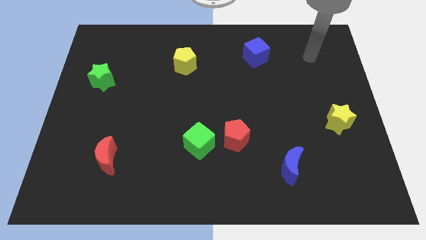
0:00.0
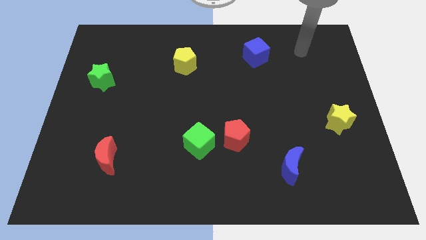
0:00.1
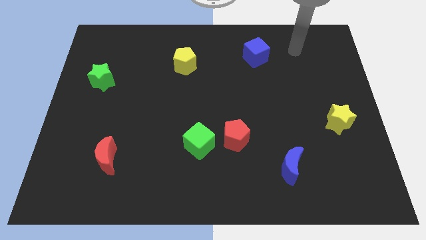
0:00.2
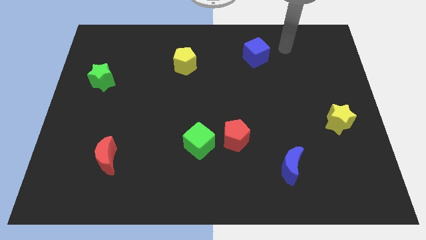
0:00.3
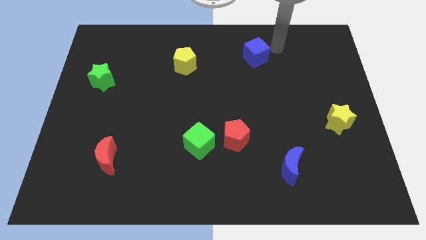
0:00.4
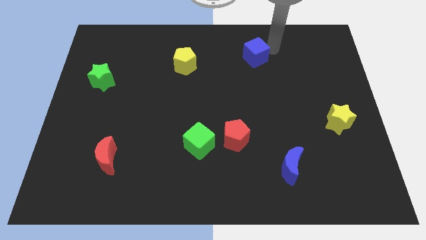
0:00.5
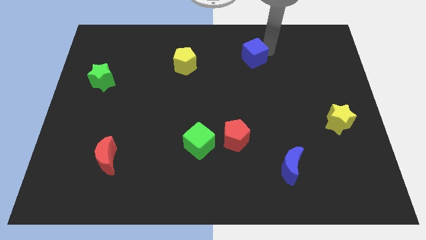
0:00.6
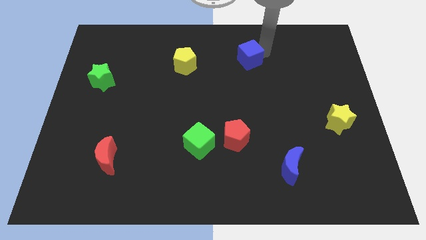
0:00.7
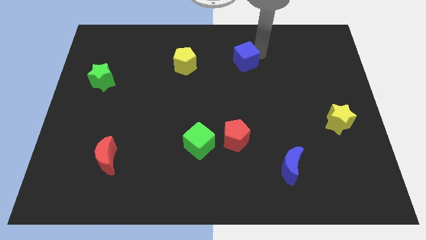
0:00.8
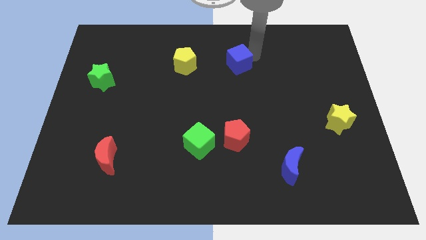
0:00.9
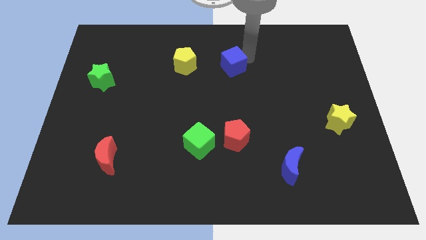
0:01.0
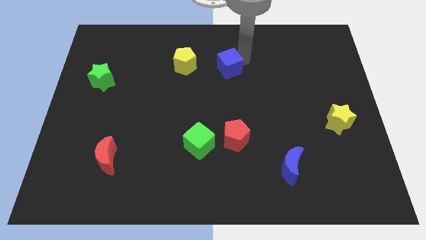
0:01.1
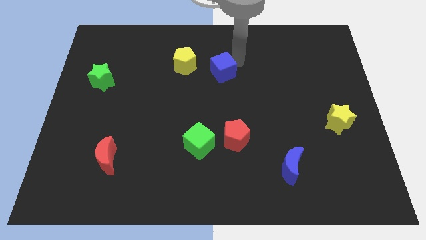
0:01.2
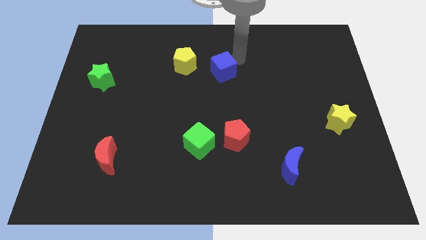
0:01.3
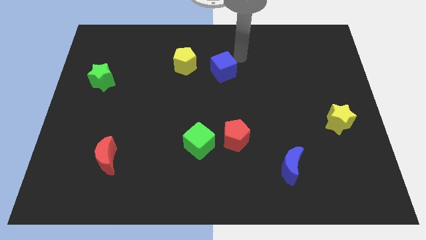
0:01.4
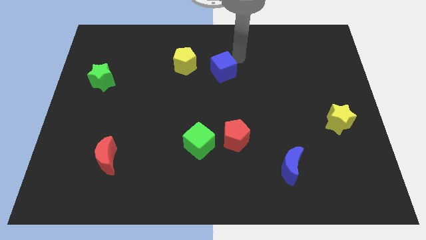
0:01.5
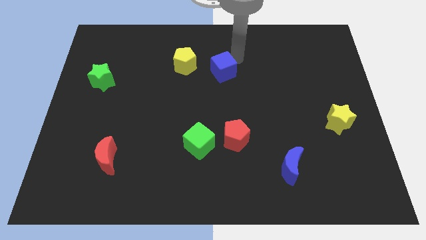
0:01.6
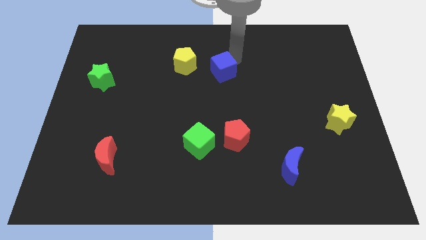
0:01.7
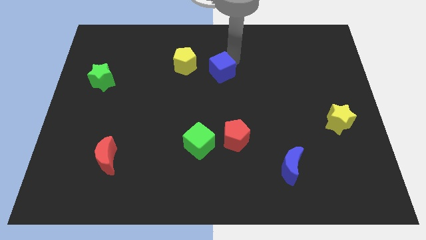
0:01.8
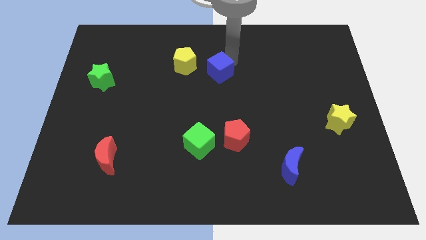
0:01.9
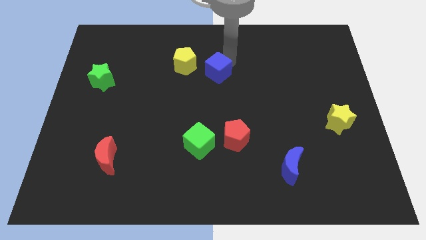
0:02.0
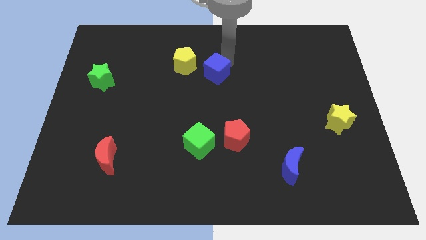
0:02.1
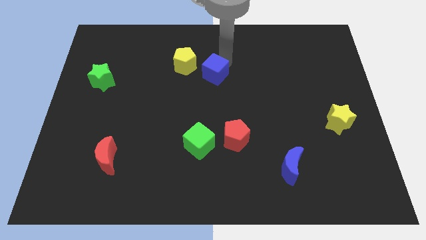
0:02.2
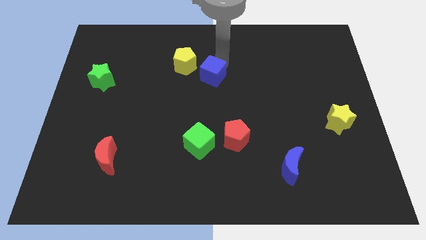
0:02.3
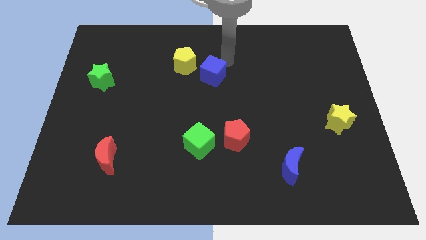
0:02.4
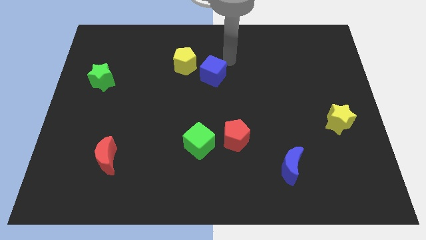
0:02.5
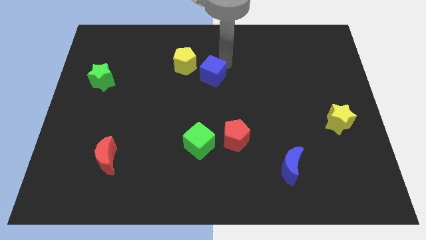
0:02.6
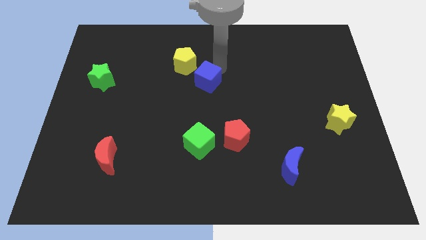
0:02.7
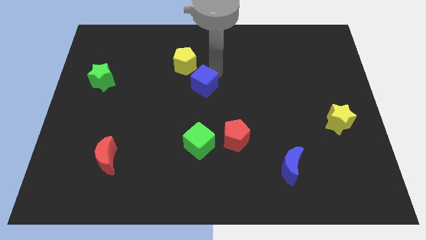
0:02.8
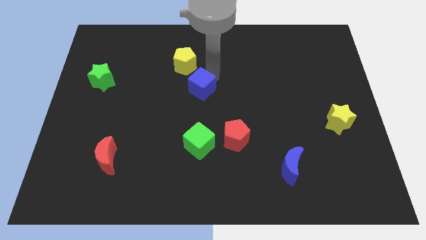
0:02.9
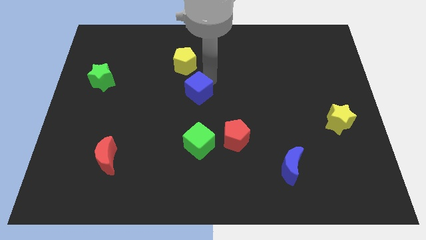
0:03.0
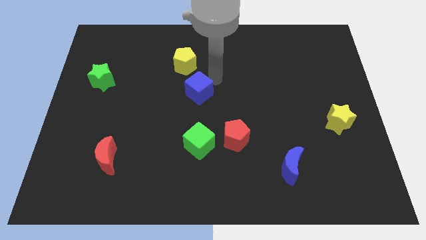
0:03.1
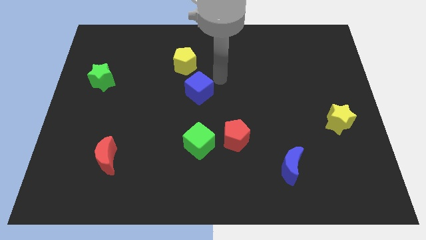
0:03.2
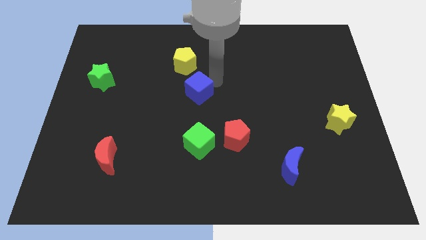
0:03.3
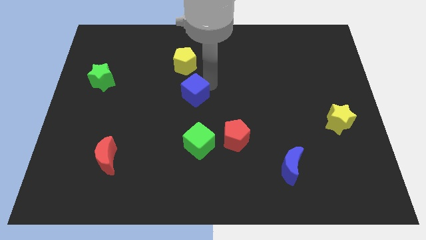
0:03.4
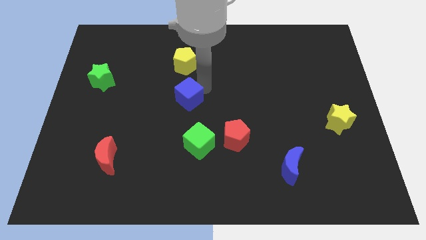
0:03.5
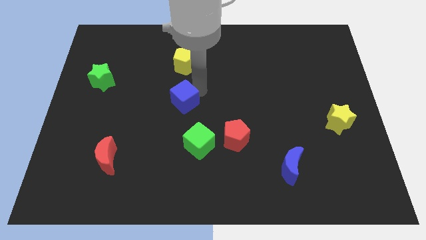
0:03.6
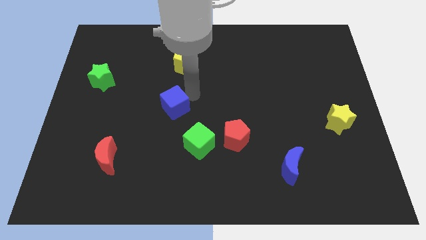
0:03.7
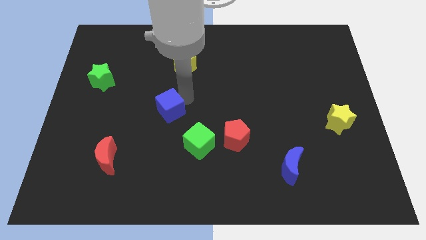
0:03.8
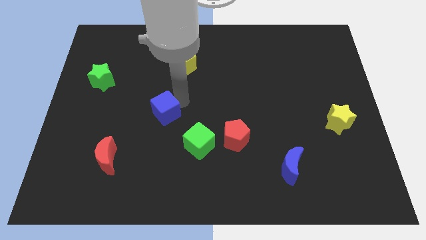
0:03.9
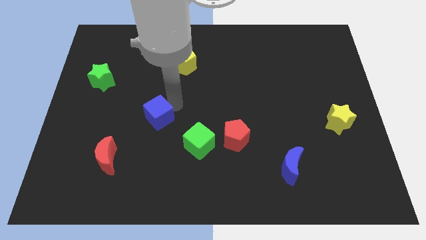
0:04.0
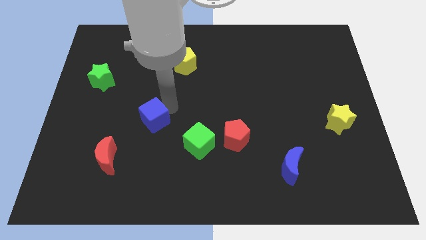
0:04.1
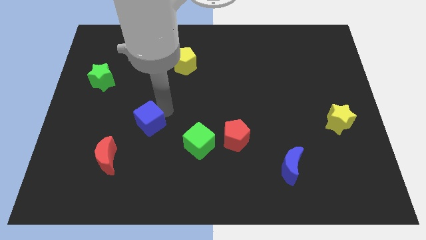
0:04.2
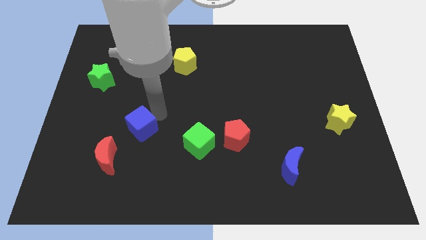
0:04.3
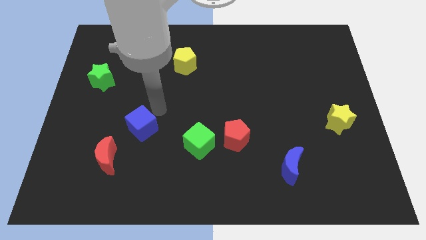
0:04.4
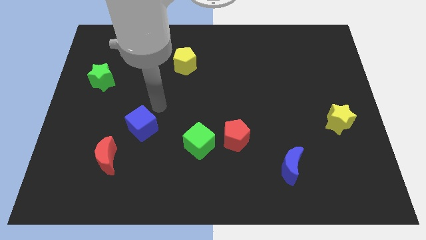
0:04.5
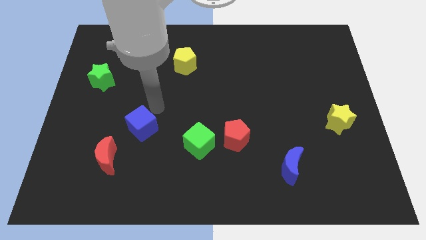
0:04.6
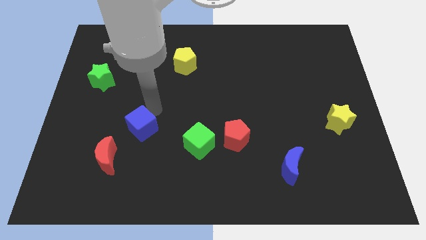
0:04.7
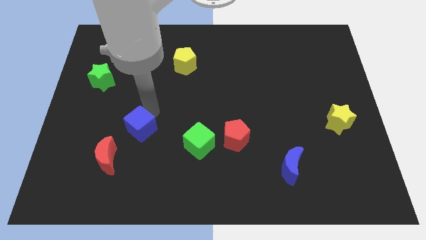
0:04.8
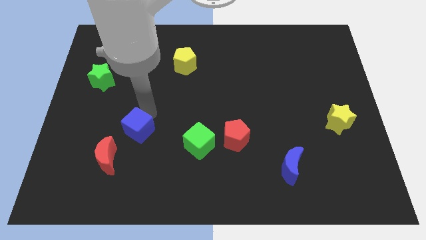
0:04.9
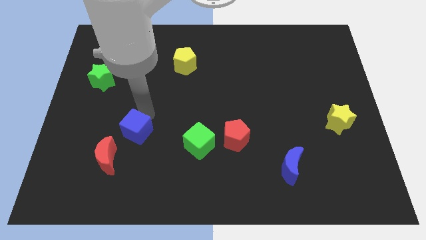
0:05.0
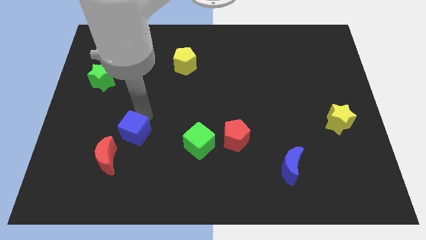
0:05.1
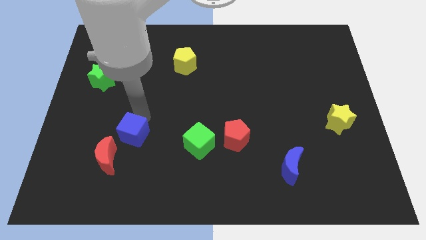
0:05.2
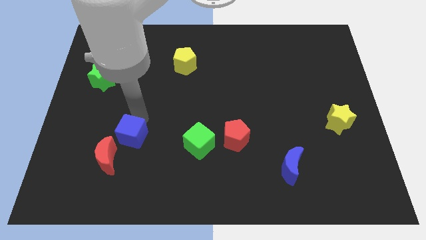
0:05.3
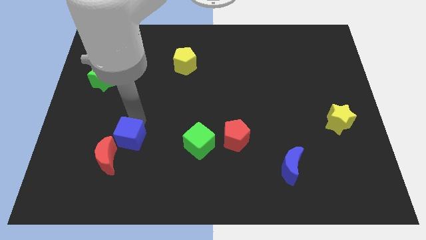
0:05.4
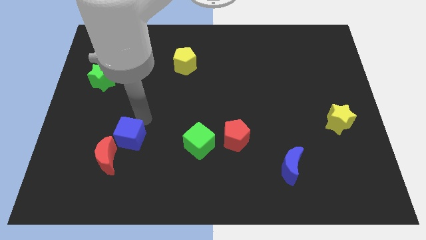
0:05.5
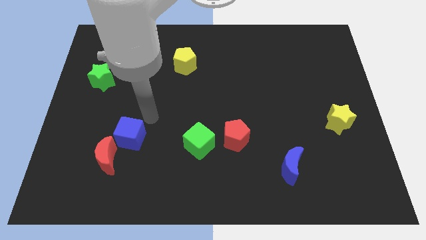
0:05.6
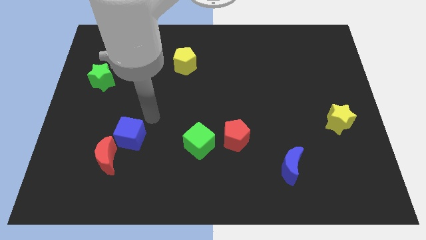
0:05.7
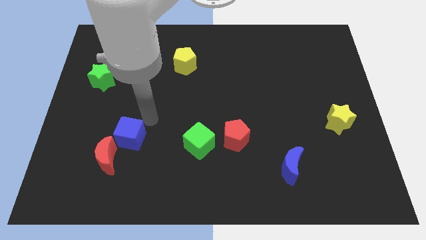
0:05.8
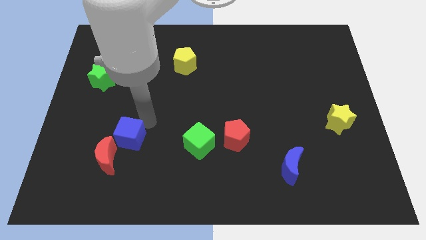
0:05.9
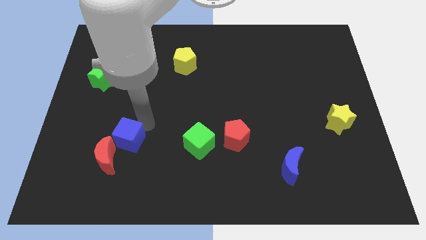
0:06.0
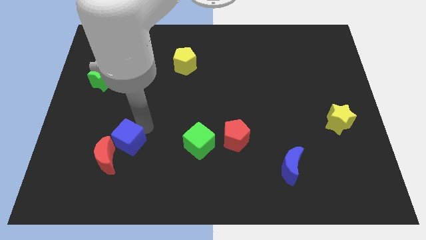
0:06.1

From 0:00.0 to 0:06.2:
put the blue cube towards the red moon

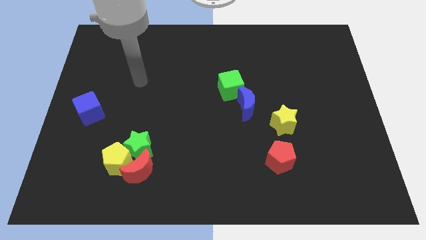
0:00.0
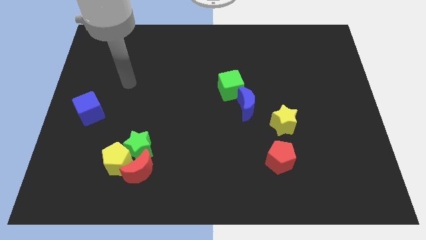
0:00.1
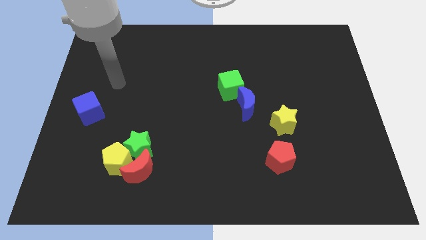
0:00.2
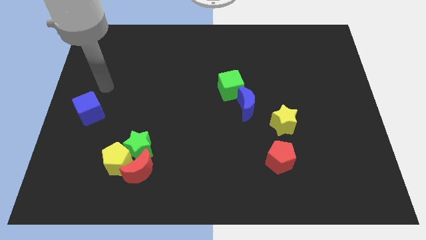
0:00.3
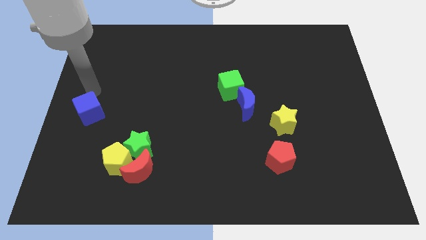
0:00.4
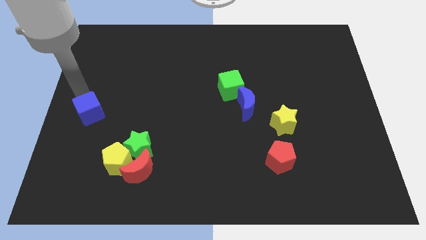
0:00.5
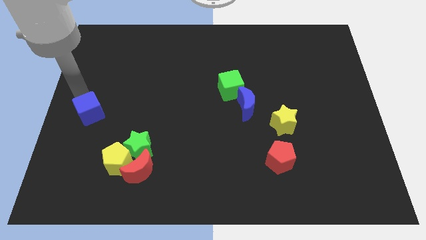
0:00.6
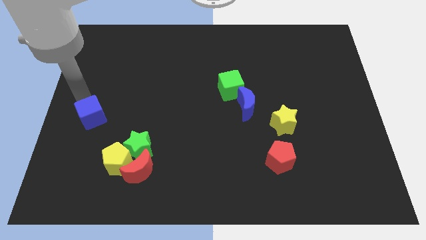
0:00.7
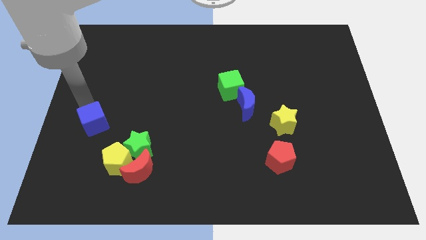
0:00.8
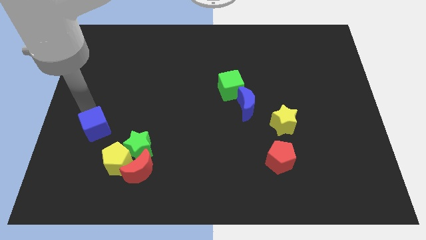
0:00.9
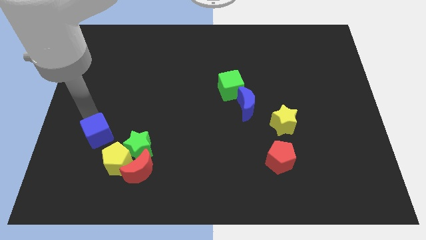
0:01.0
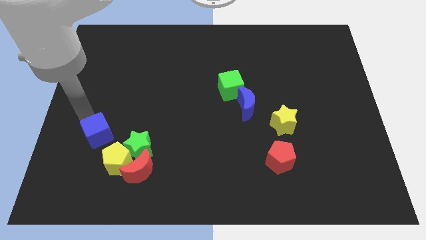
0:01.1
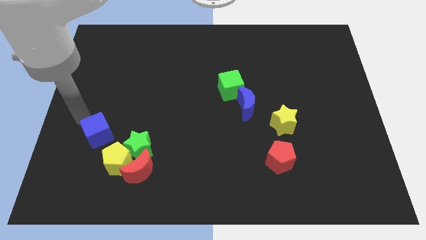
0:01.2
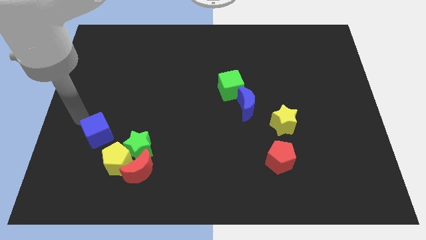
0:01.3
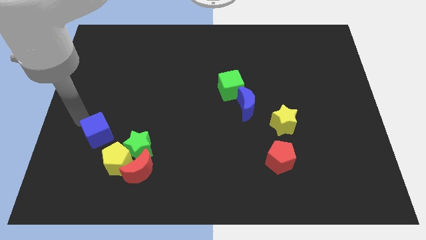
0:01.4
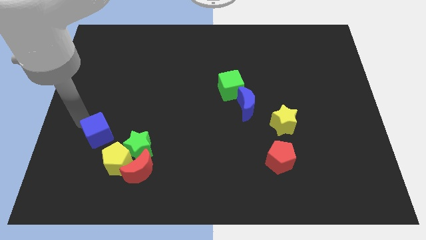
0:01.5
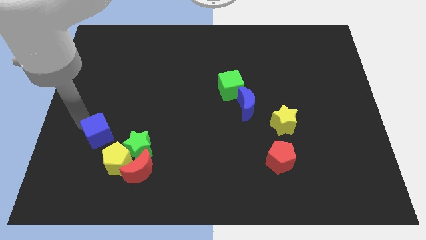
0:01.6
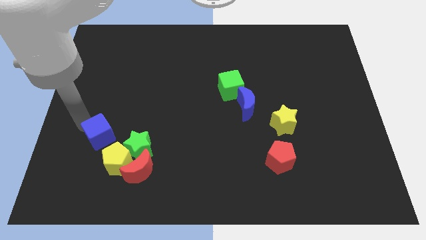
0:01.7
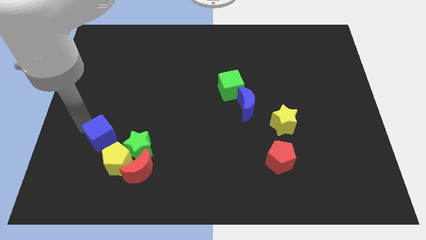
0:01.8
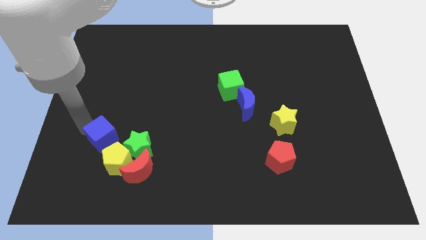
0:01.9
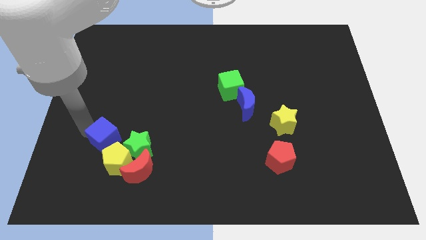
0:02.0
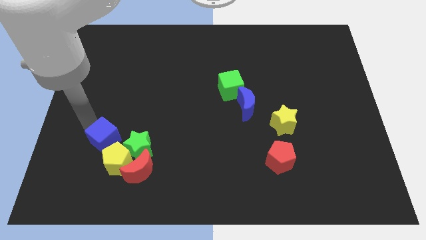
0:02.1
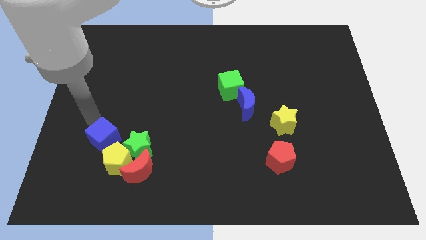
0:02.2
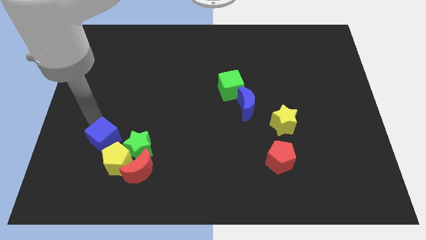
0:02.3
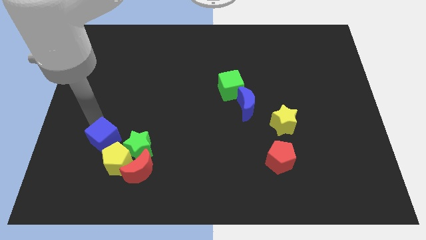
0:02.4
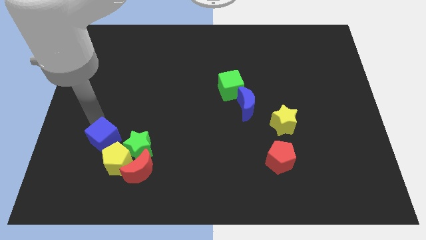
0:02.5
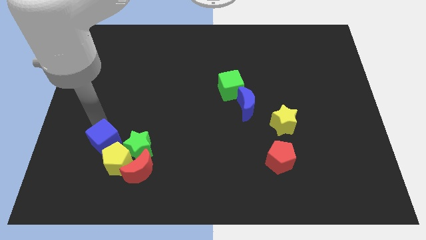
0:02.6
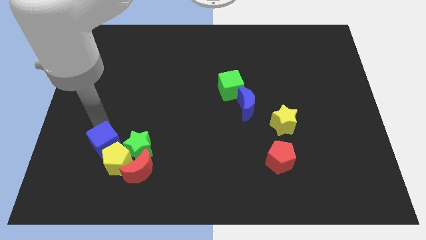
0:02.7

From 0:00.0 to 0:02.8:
slide the blue cube close to the yellow pentagon
